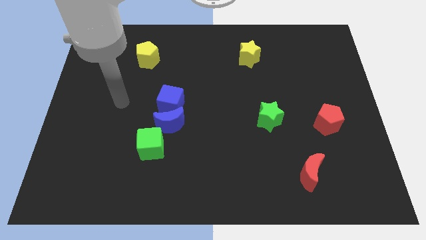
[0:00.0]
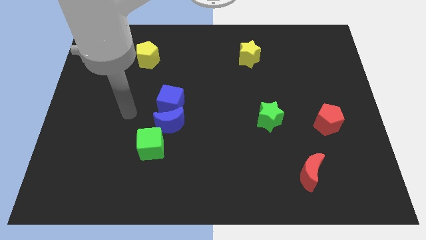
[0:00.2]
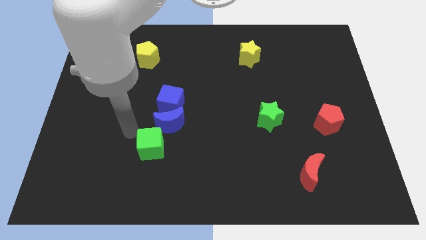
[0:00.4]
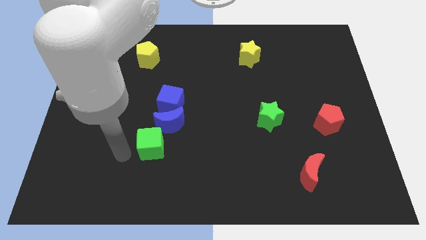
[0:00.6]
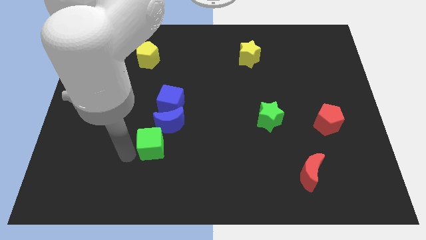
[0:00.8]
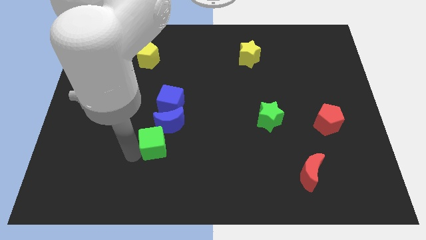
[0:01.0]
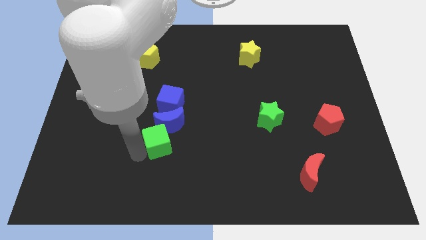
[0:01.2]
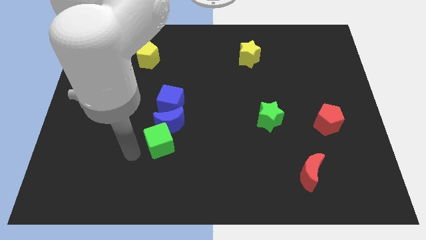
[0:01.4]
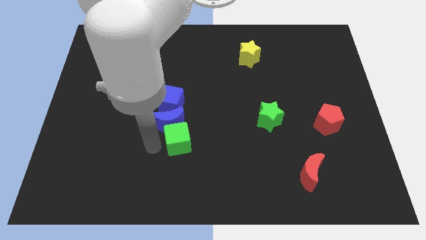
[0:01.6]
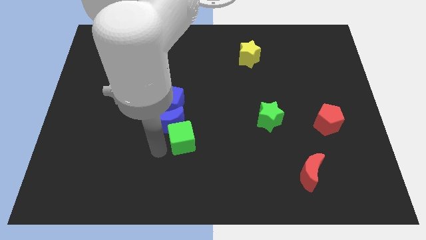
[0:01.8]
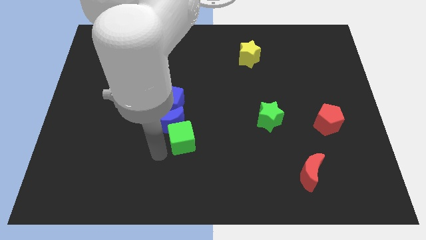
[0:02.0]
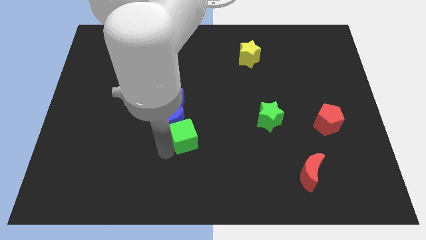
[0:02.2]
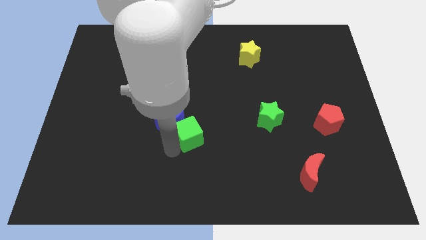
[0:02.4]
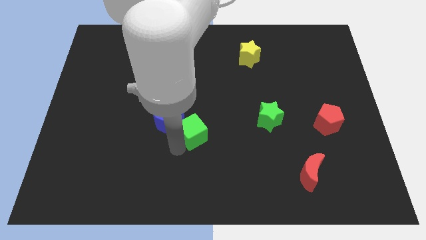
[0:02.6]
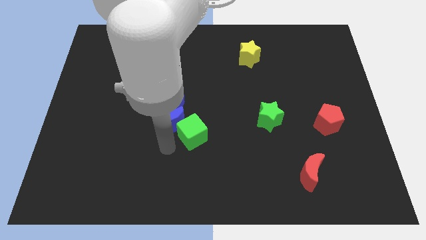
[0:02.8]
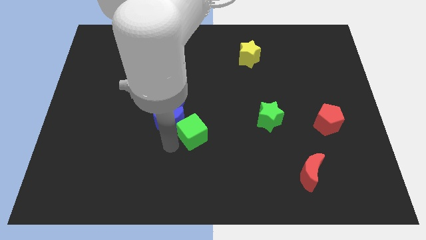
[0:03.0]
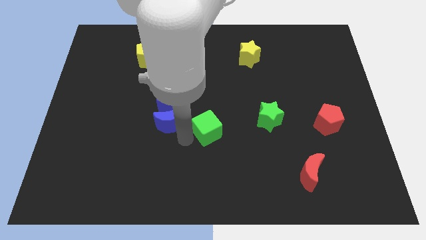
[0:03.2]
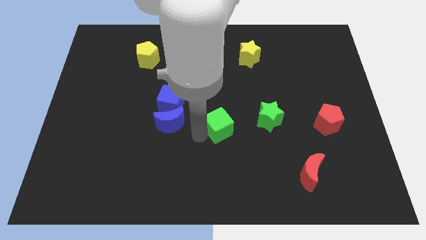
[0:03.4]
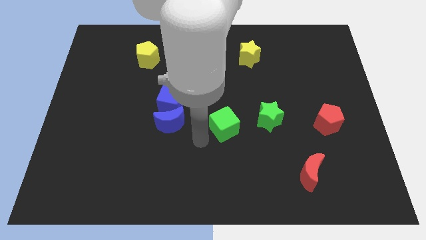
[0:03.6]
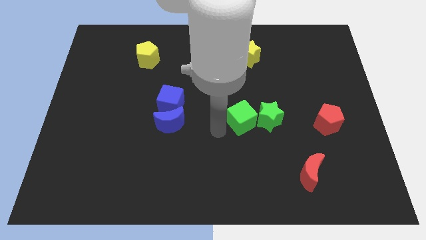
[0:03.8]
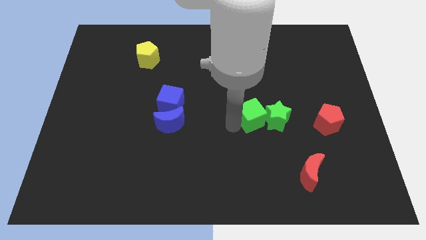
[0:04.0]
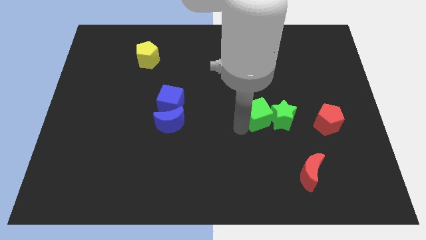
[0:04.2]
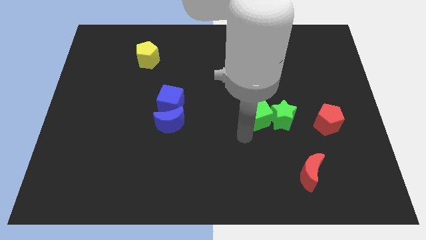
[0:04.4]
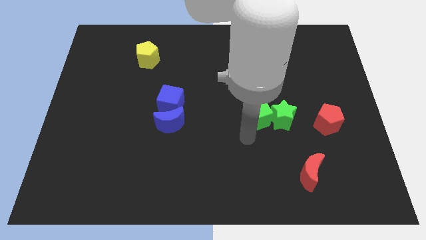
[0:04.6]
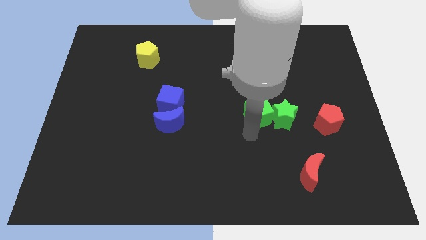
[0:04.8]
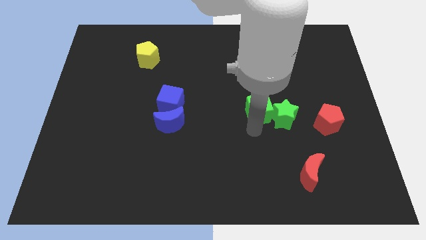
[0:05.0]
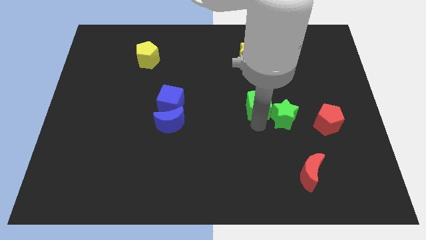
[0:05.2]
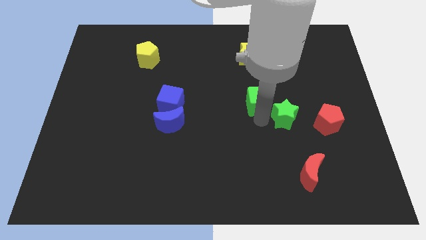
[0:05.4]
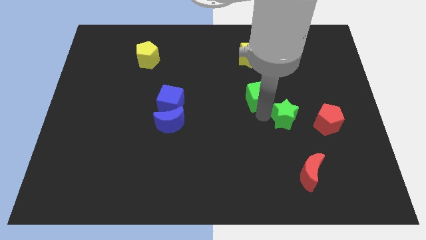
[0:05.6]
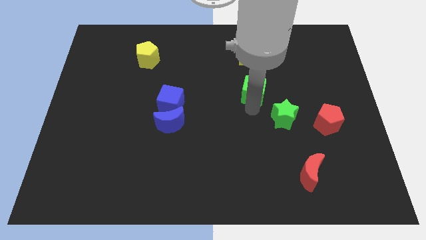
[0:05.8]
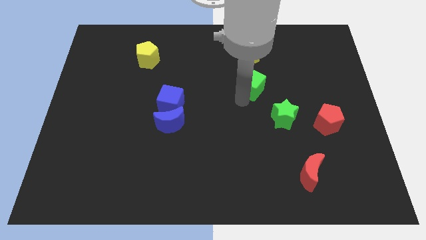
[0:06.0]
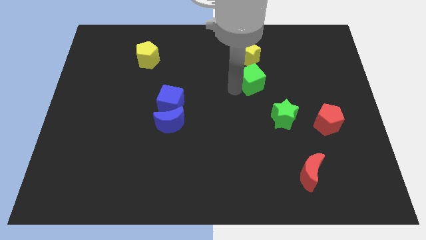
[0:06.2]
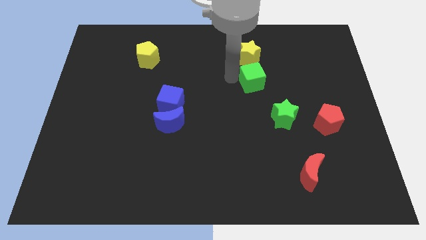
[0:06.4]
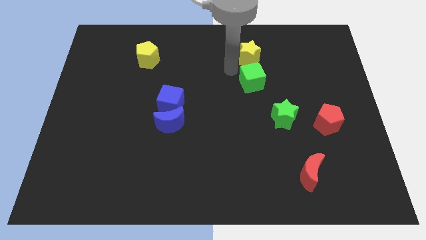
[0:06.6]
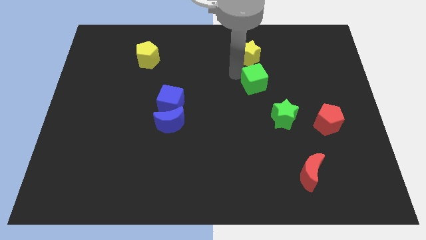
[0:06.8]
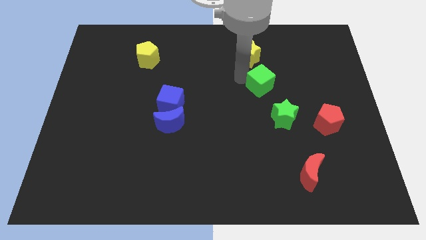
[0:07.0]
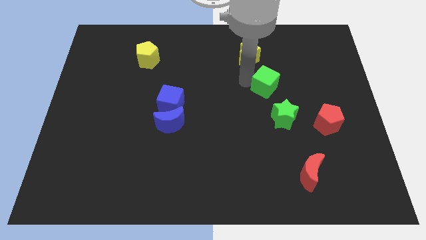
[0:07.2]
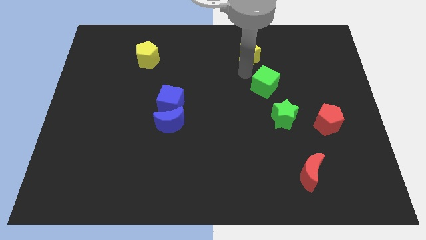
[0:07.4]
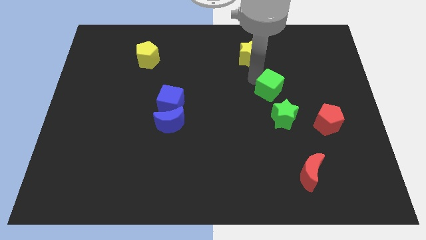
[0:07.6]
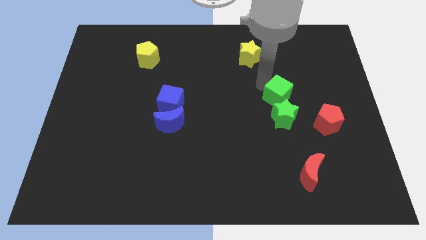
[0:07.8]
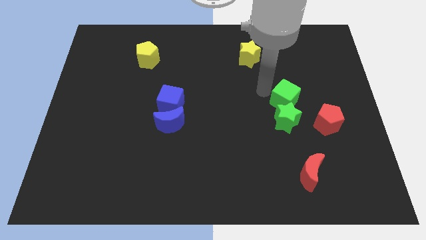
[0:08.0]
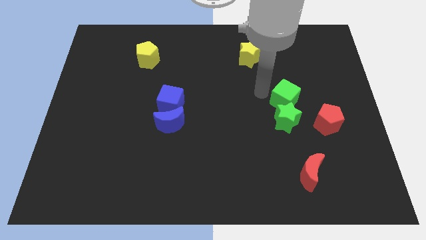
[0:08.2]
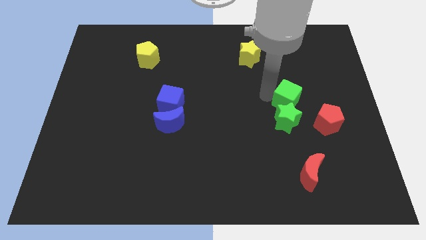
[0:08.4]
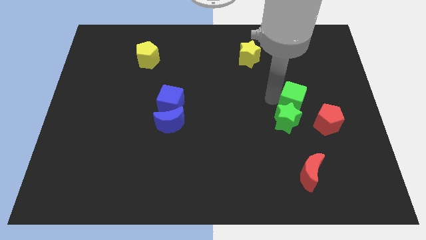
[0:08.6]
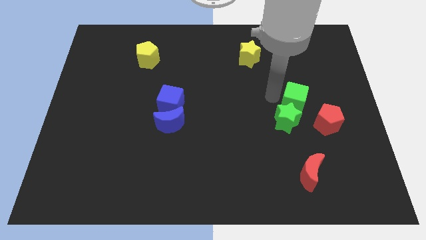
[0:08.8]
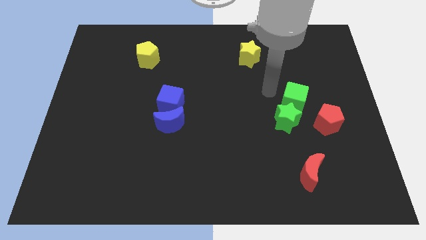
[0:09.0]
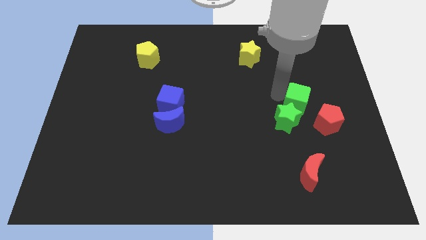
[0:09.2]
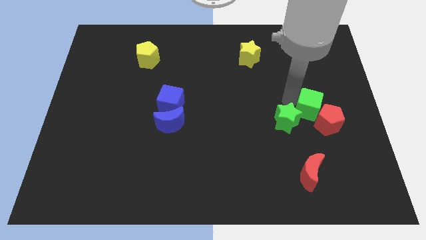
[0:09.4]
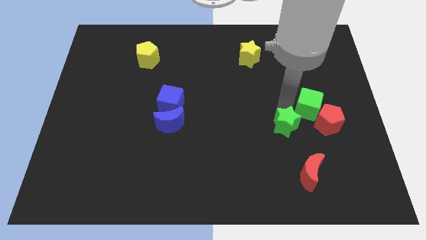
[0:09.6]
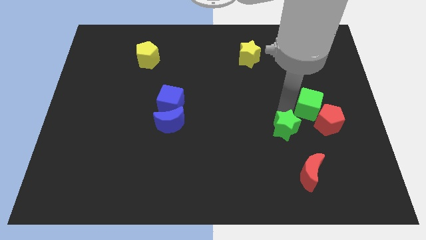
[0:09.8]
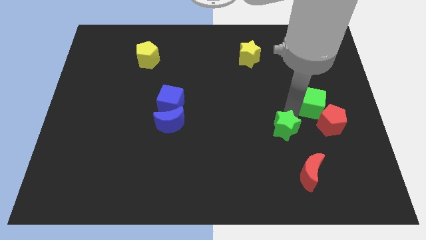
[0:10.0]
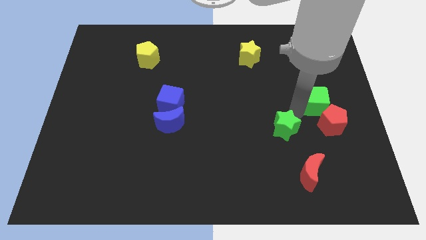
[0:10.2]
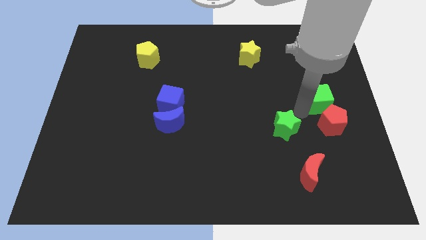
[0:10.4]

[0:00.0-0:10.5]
push the green cube to the center right
